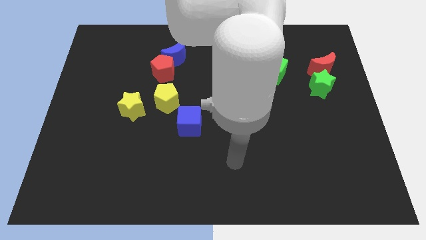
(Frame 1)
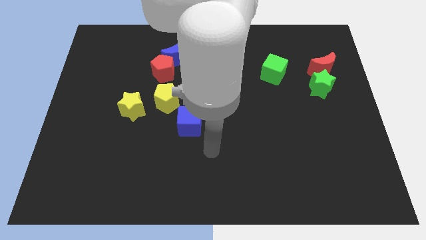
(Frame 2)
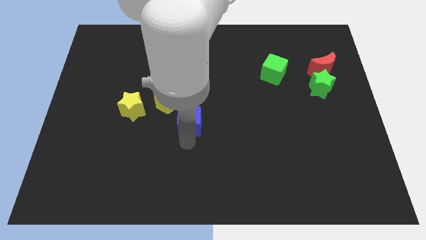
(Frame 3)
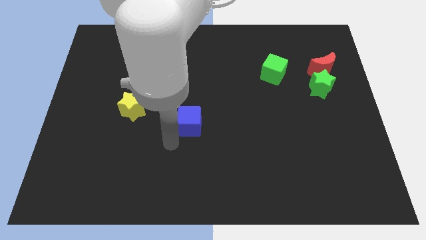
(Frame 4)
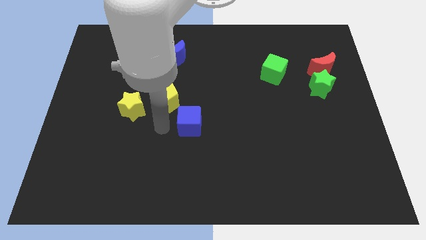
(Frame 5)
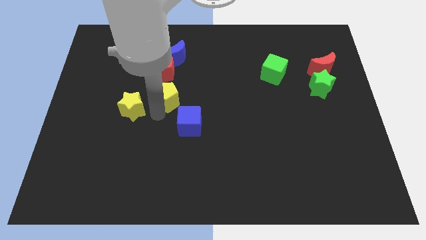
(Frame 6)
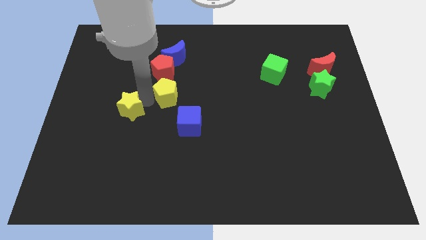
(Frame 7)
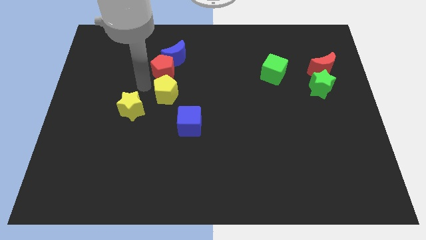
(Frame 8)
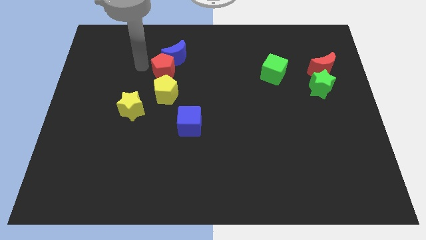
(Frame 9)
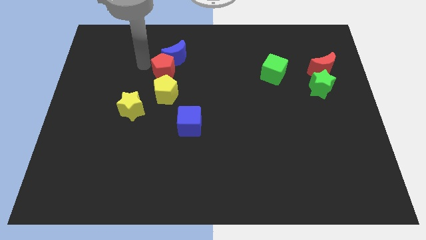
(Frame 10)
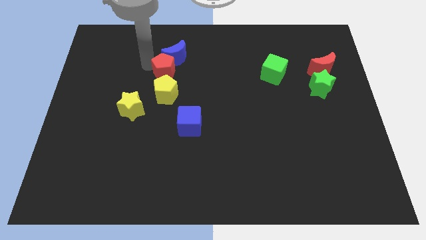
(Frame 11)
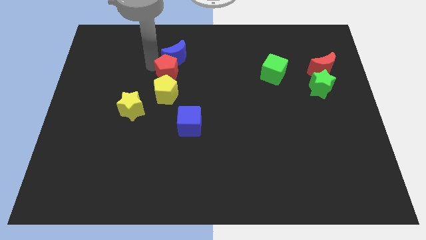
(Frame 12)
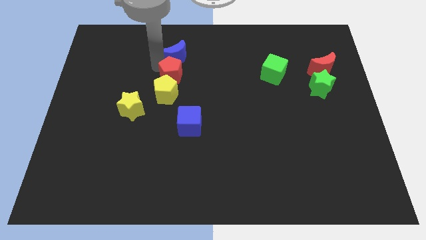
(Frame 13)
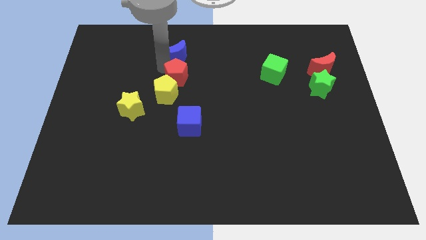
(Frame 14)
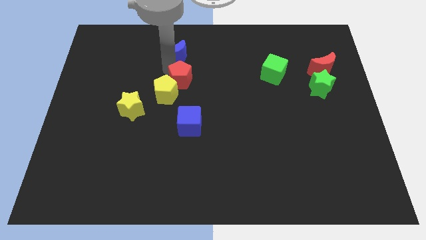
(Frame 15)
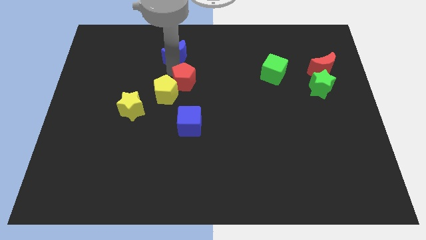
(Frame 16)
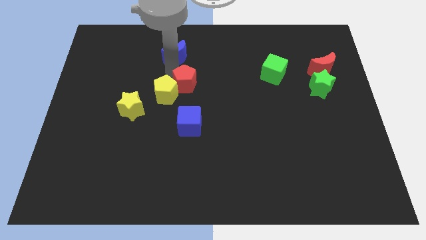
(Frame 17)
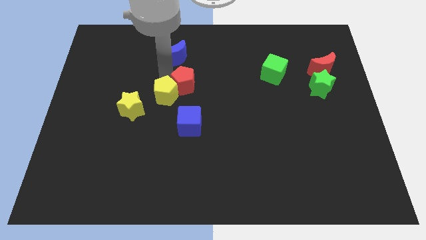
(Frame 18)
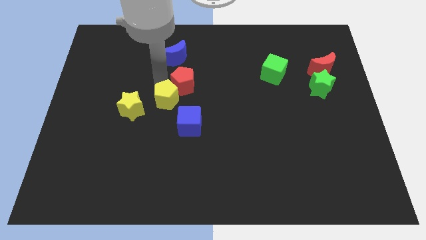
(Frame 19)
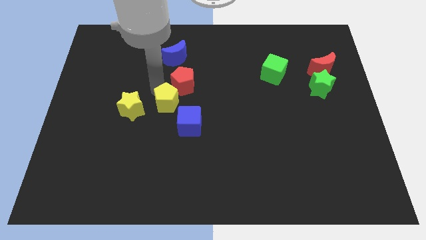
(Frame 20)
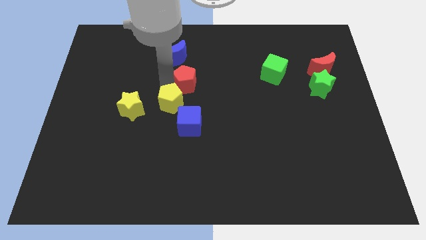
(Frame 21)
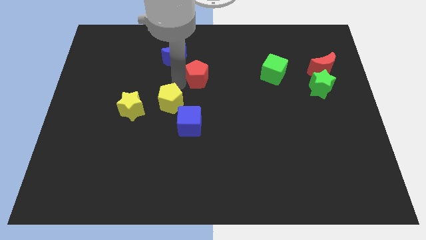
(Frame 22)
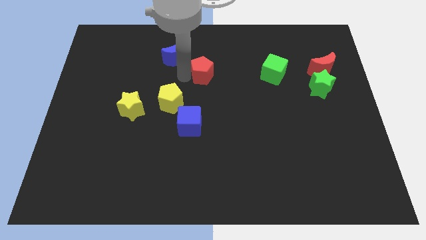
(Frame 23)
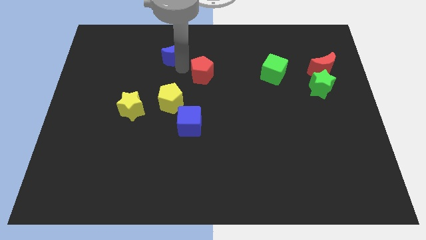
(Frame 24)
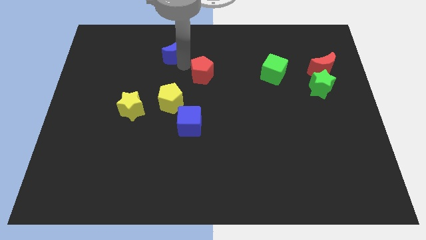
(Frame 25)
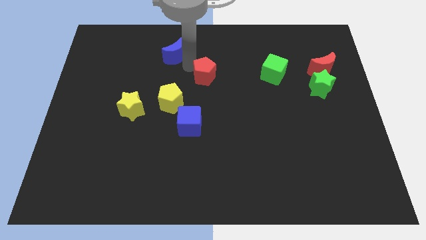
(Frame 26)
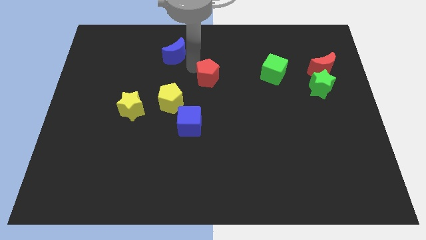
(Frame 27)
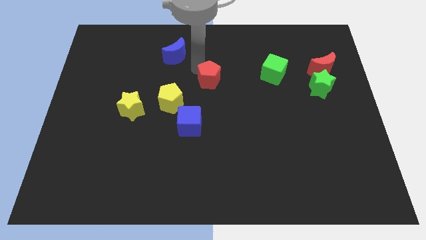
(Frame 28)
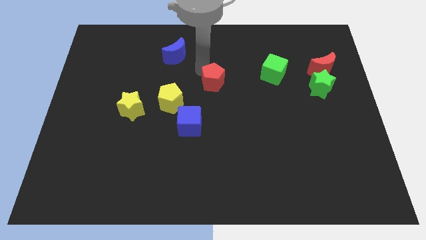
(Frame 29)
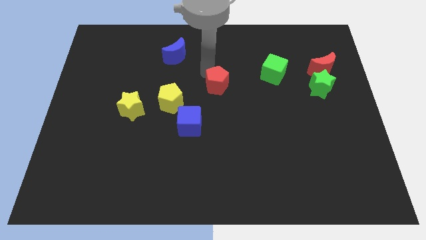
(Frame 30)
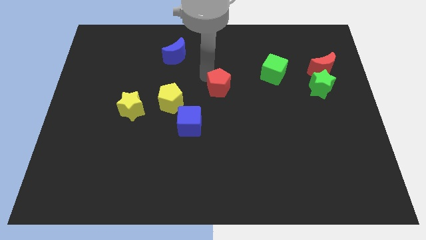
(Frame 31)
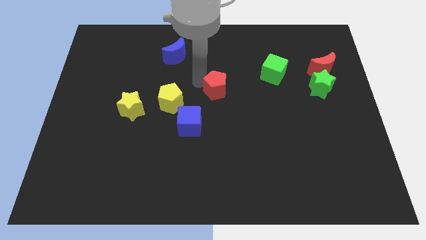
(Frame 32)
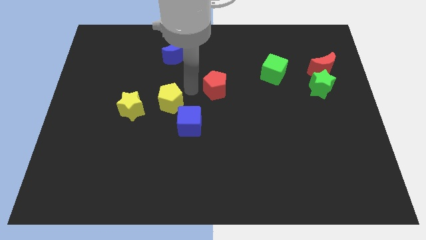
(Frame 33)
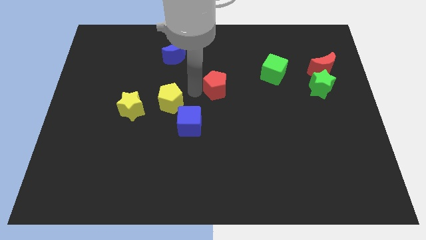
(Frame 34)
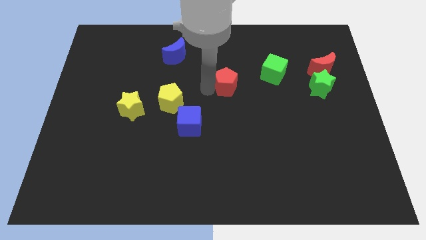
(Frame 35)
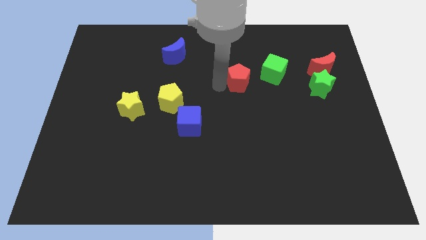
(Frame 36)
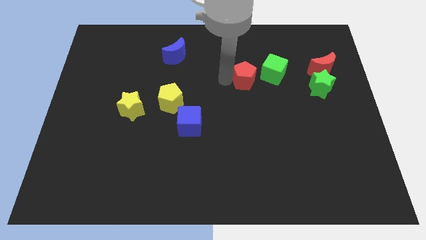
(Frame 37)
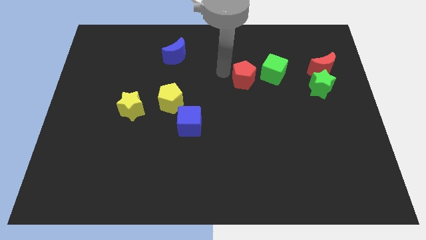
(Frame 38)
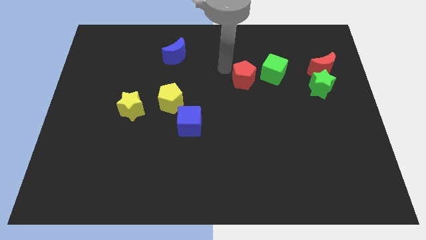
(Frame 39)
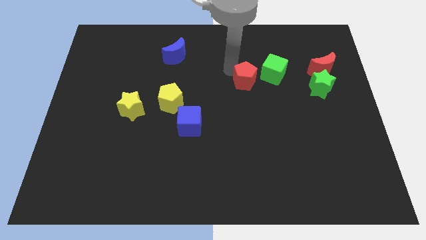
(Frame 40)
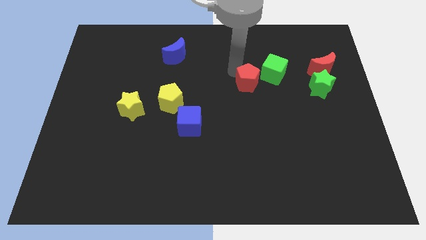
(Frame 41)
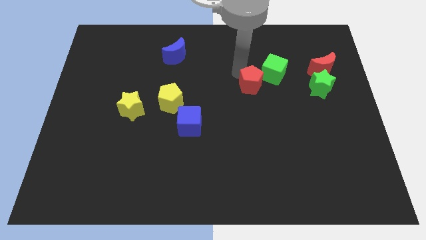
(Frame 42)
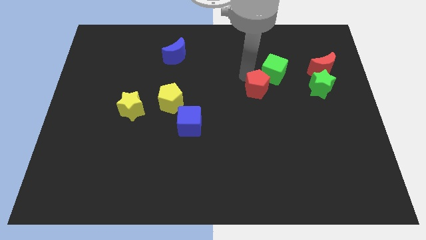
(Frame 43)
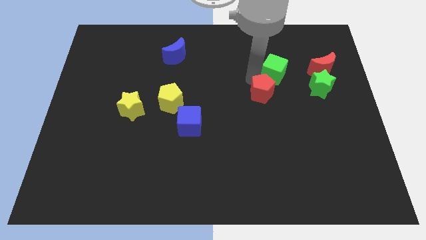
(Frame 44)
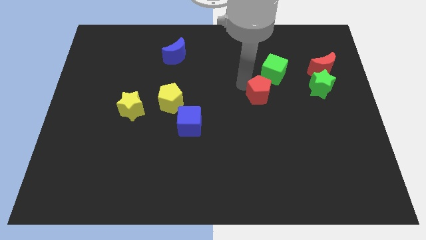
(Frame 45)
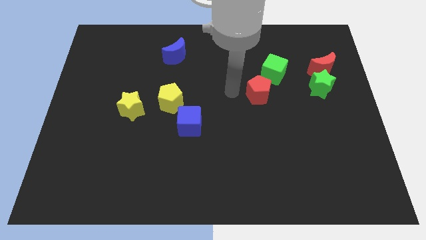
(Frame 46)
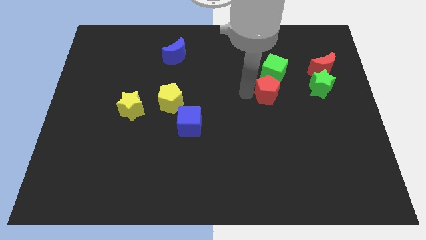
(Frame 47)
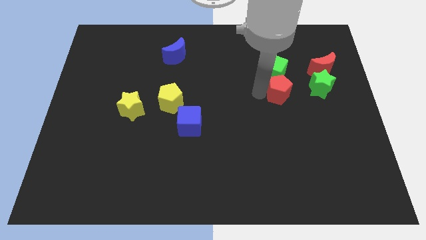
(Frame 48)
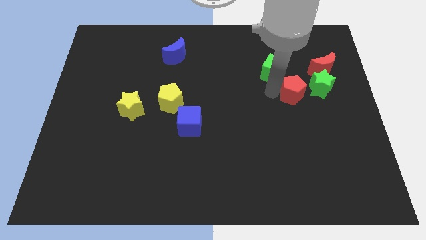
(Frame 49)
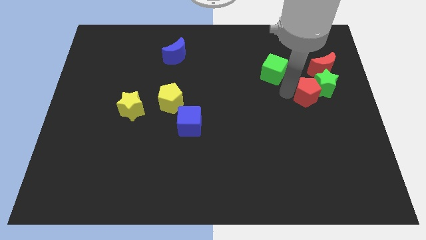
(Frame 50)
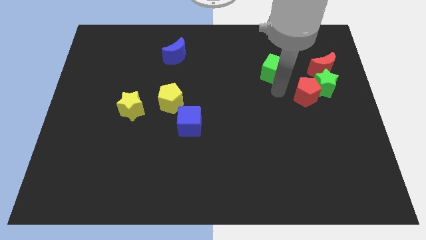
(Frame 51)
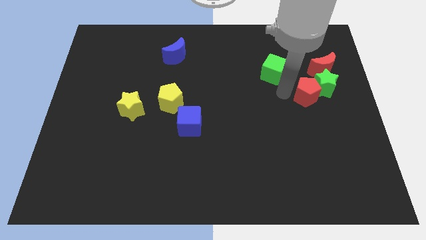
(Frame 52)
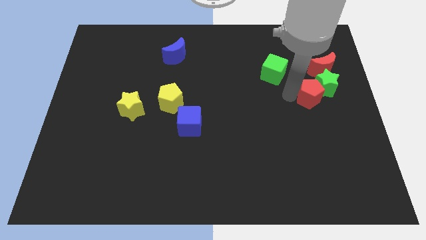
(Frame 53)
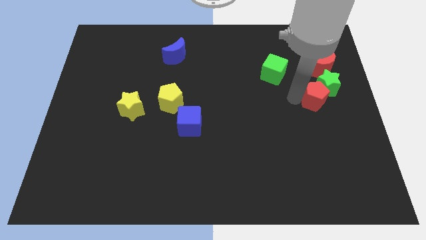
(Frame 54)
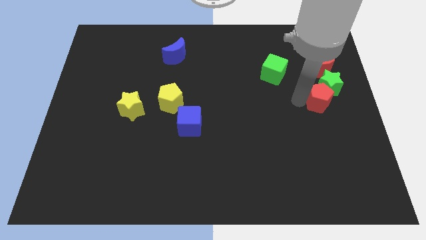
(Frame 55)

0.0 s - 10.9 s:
move the red pentagon to the right side of the board

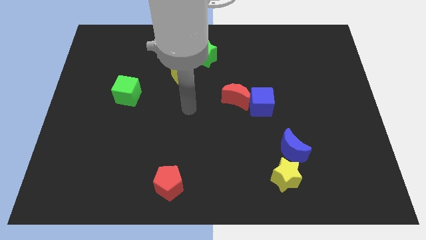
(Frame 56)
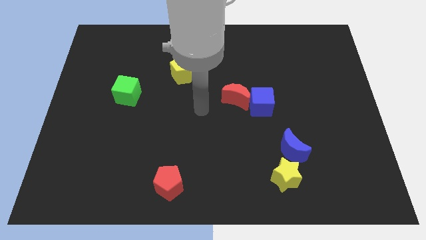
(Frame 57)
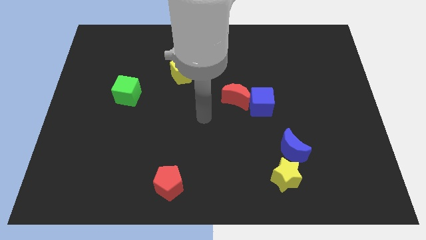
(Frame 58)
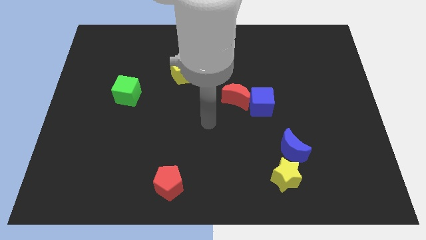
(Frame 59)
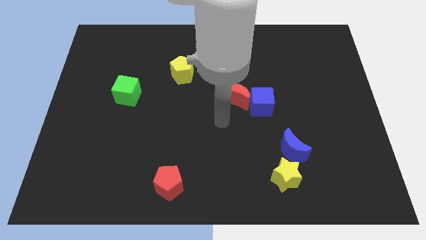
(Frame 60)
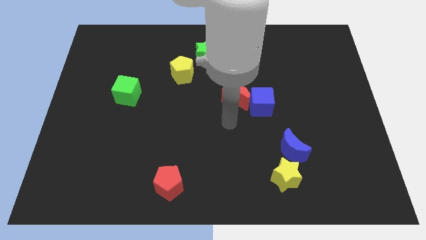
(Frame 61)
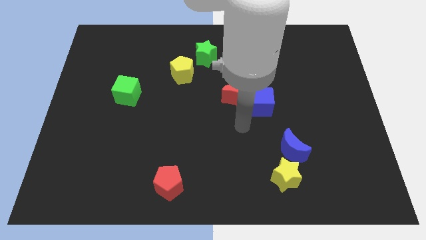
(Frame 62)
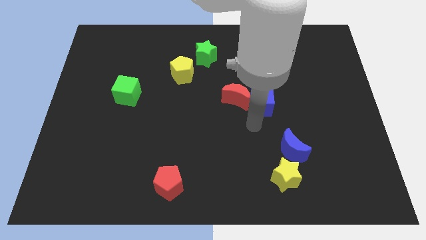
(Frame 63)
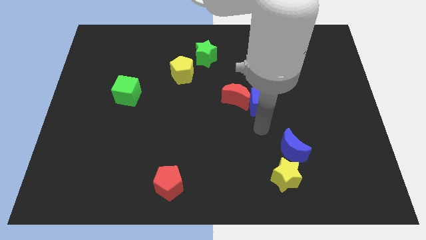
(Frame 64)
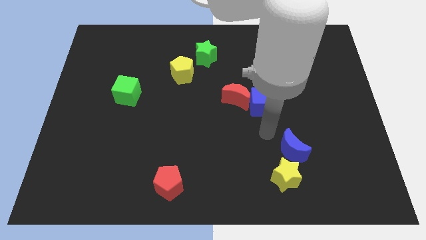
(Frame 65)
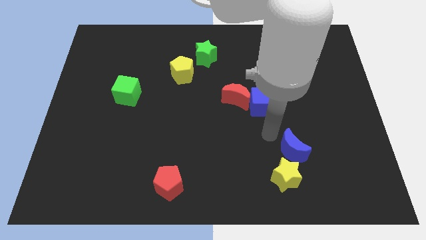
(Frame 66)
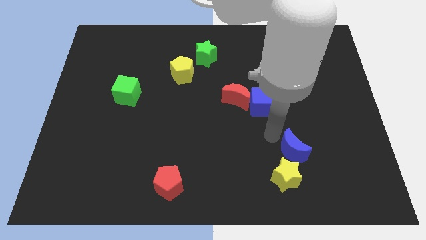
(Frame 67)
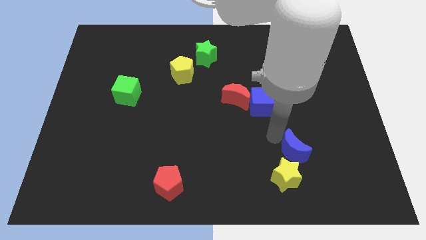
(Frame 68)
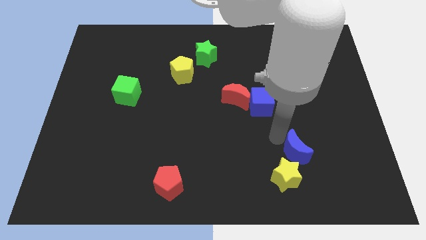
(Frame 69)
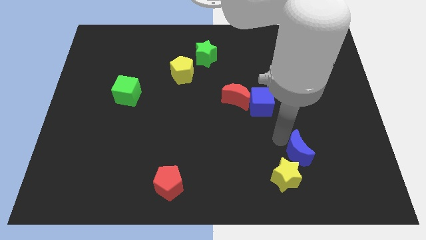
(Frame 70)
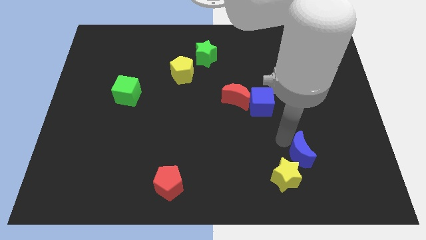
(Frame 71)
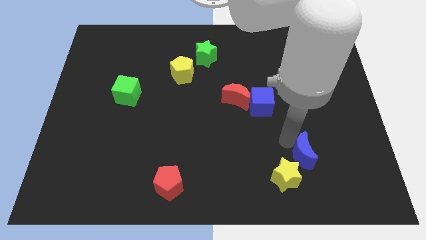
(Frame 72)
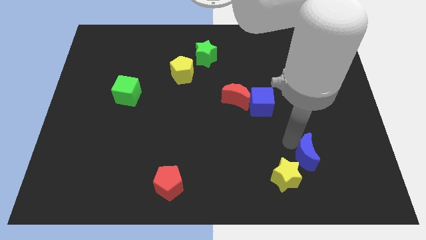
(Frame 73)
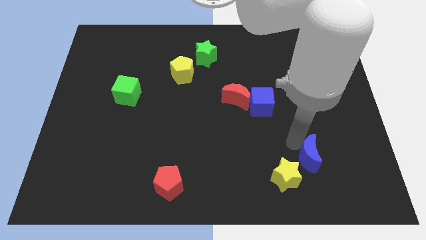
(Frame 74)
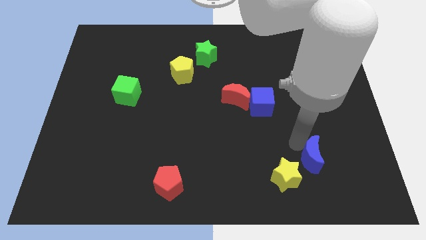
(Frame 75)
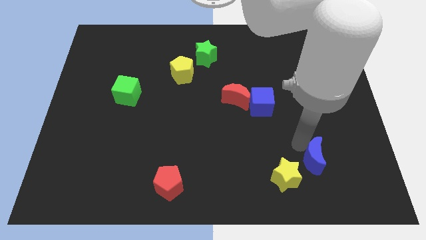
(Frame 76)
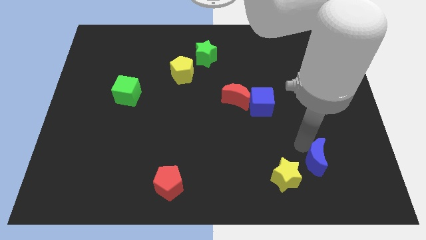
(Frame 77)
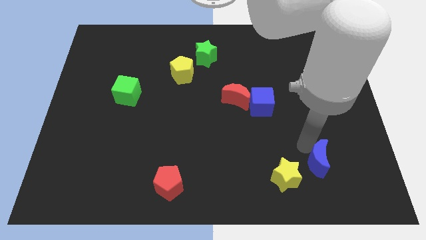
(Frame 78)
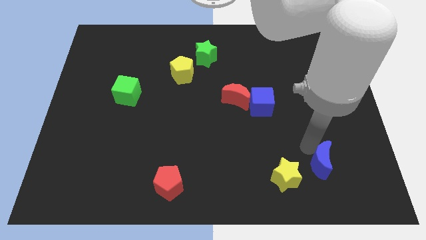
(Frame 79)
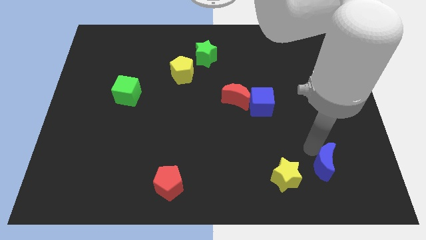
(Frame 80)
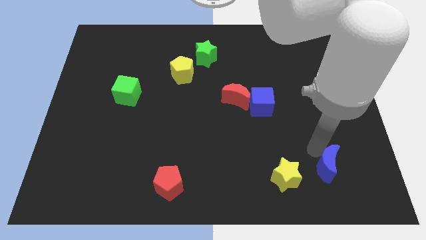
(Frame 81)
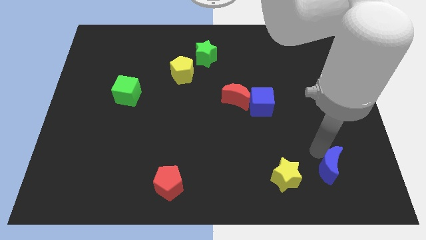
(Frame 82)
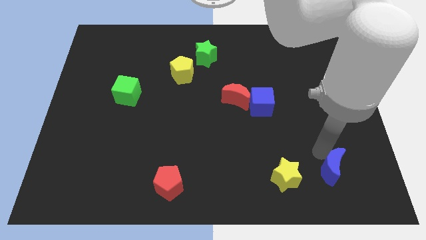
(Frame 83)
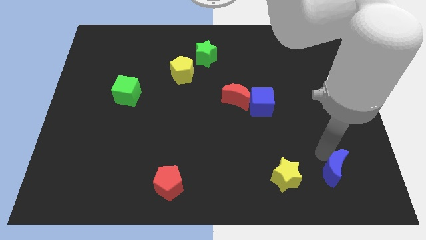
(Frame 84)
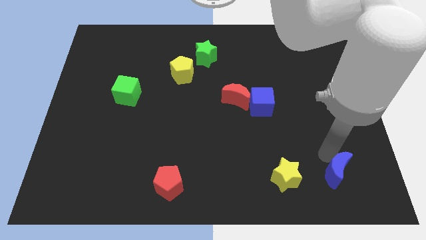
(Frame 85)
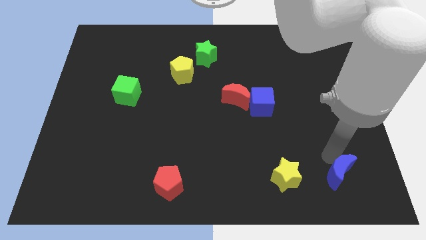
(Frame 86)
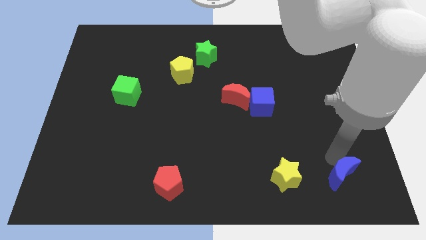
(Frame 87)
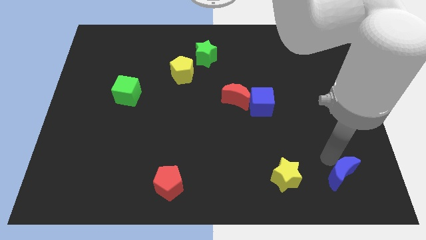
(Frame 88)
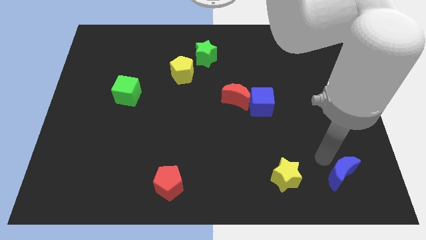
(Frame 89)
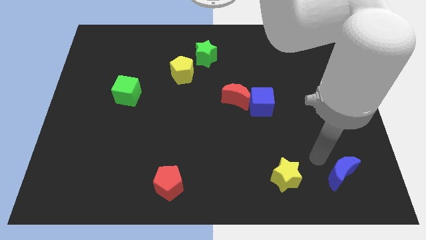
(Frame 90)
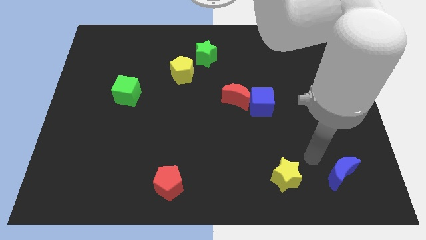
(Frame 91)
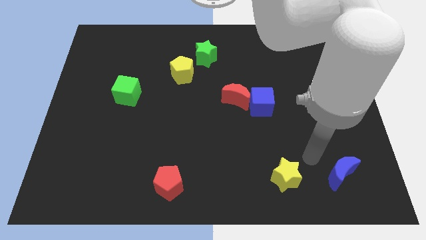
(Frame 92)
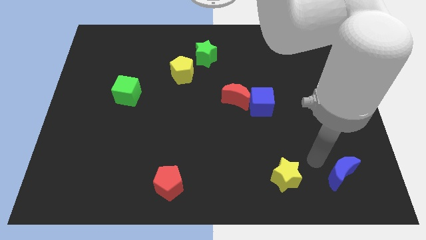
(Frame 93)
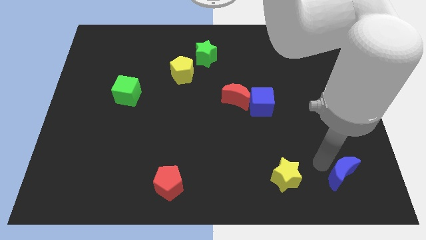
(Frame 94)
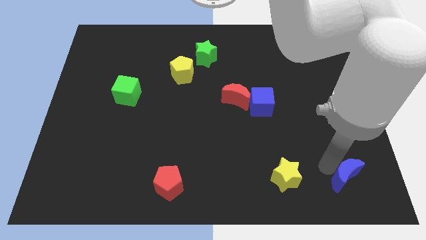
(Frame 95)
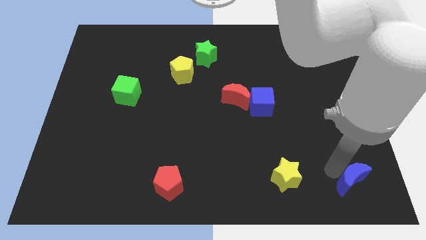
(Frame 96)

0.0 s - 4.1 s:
move the blue moon to the bottom right
